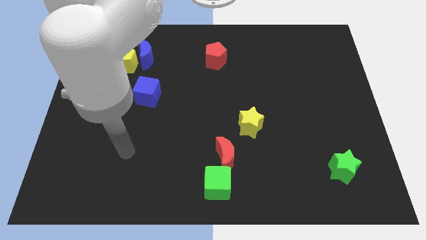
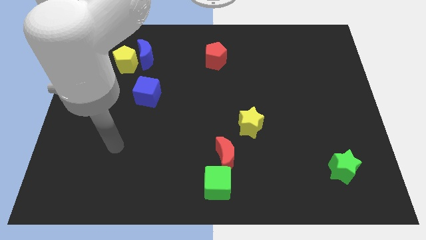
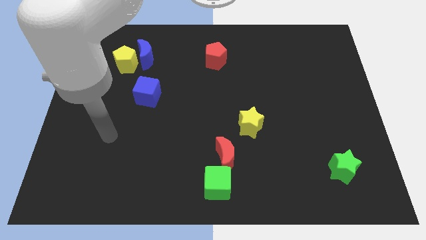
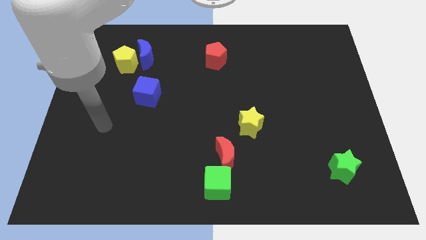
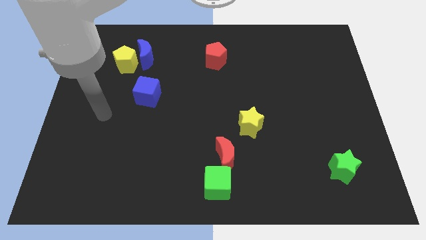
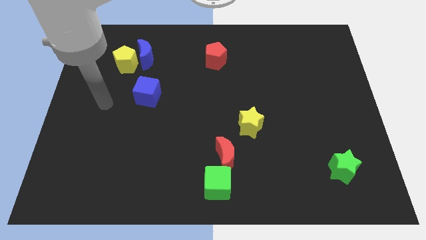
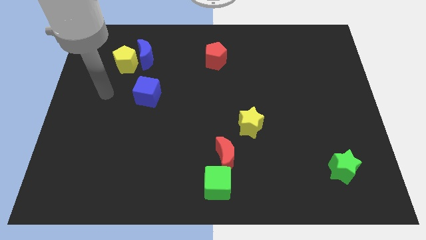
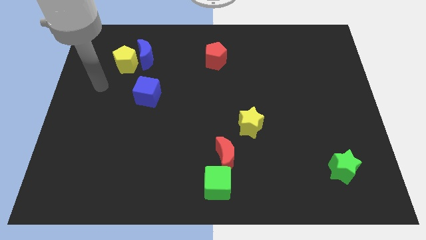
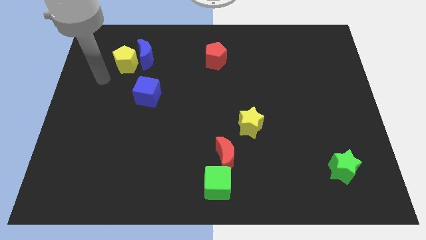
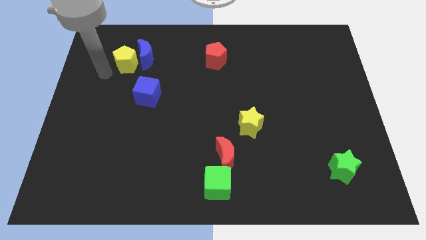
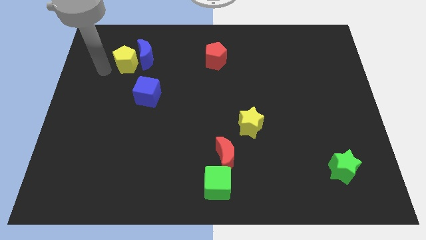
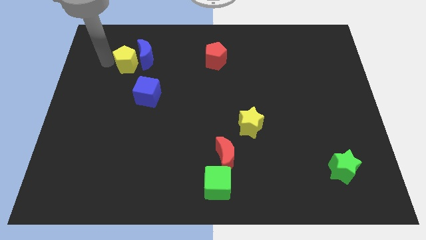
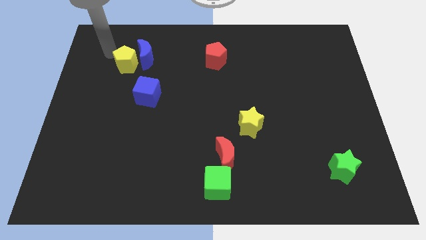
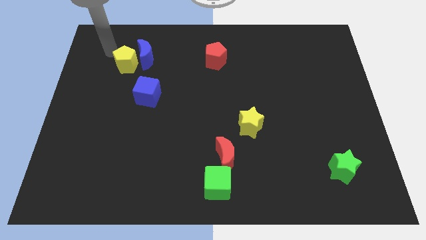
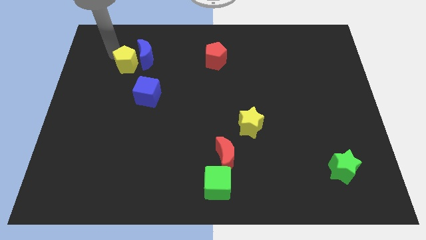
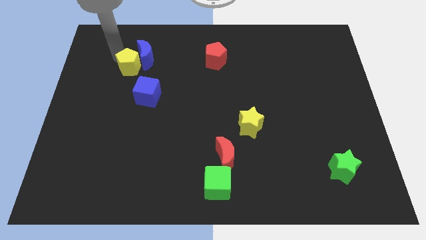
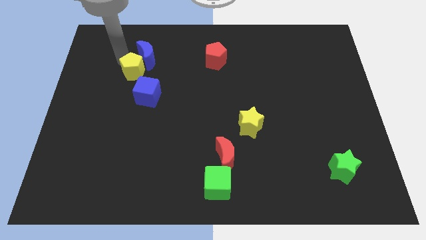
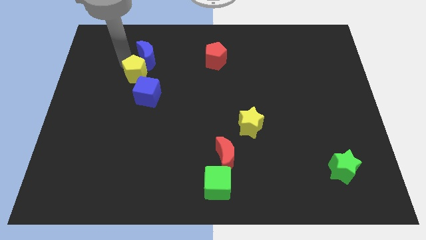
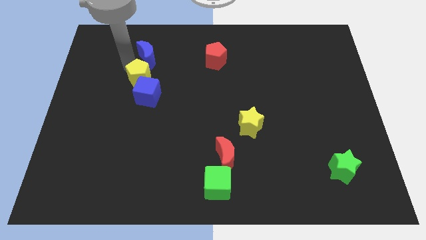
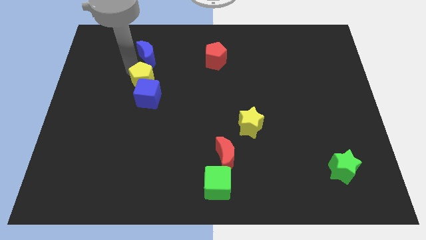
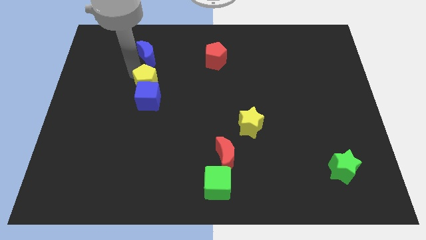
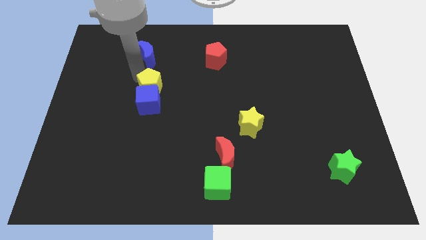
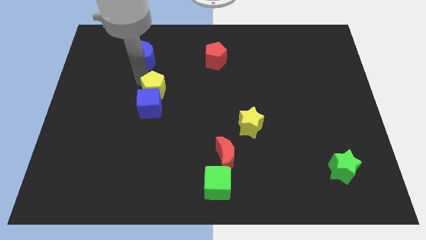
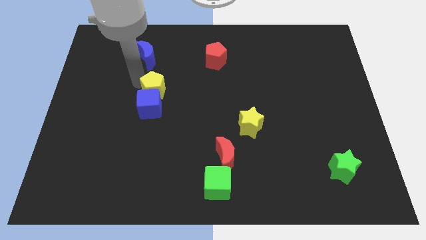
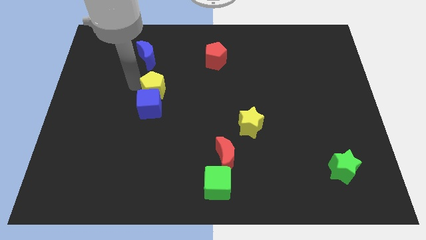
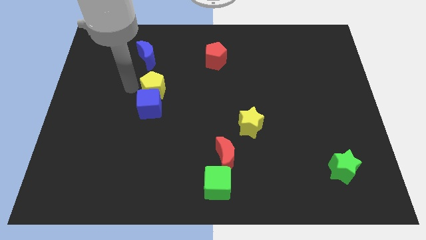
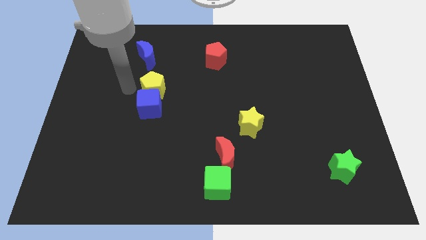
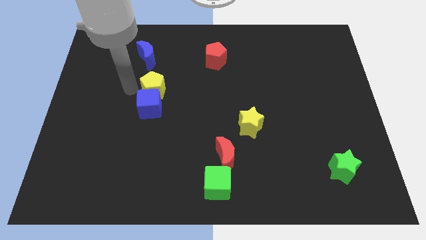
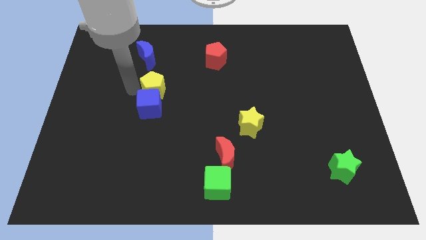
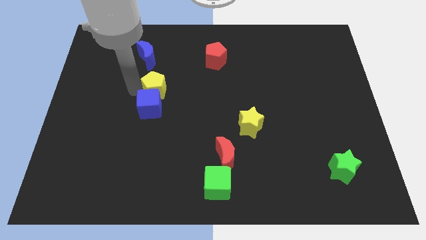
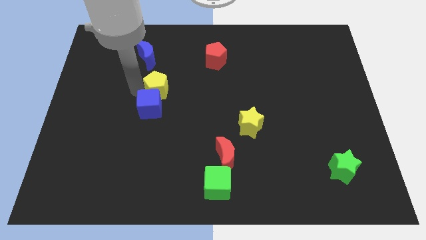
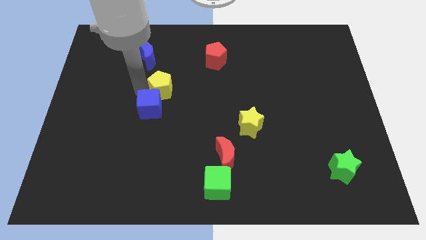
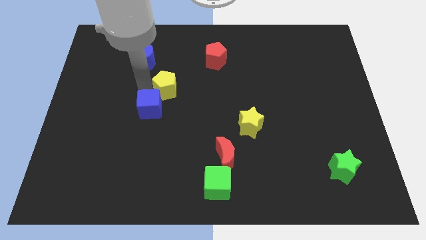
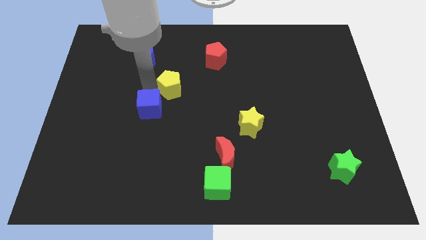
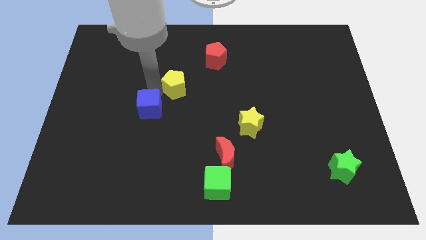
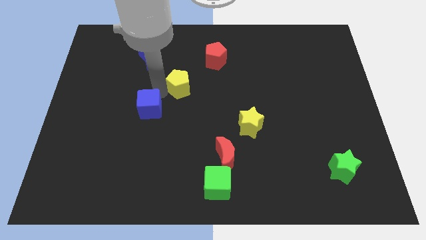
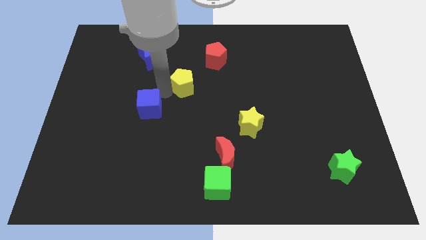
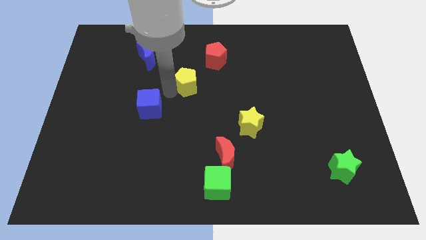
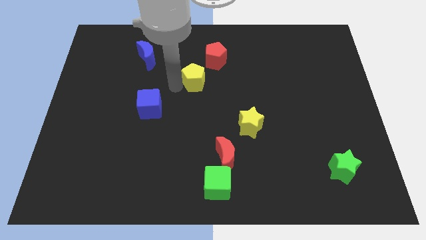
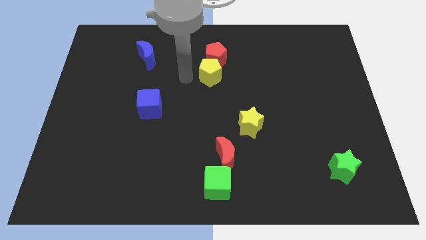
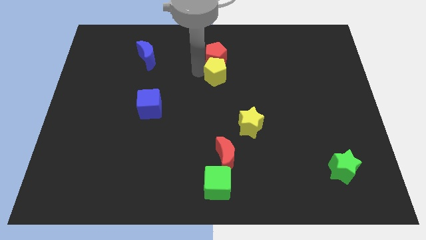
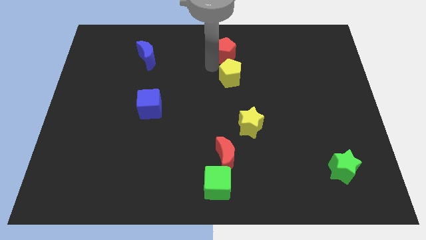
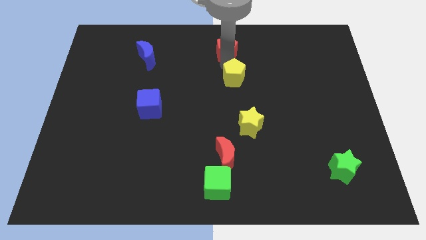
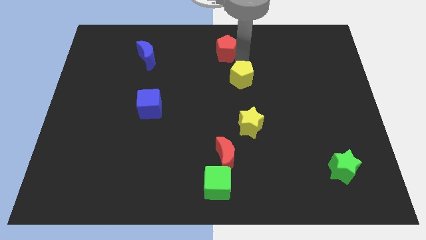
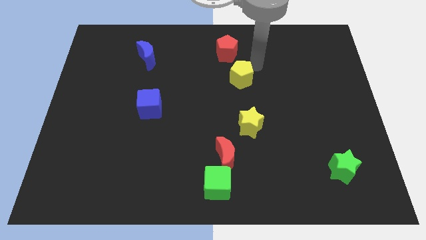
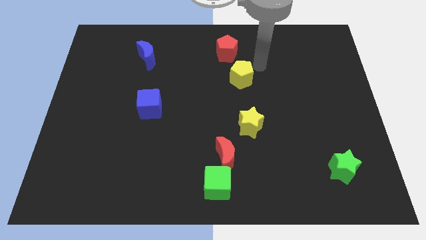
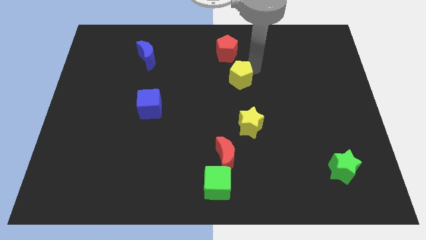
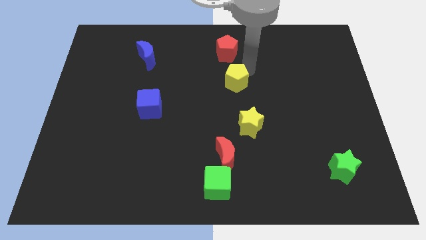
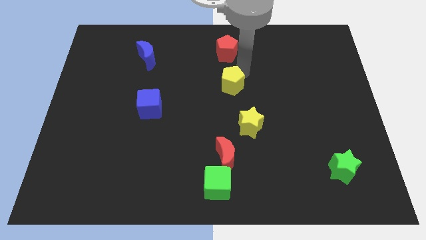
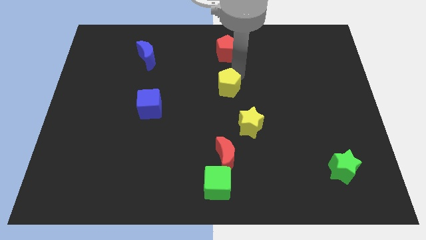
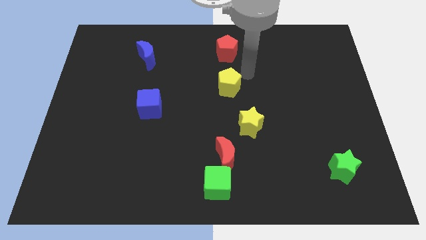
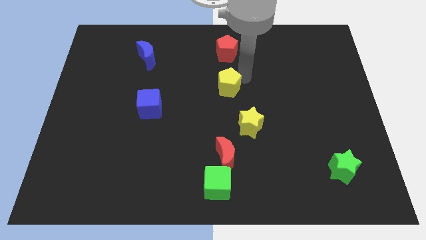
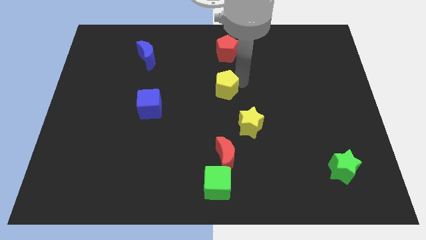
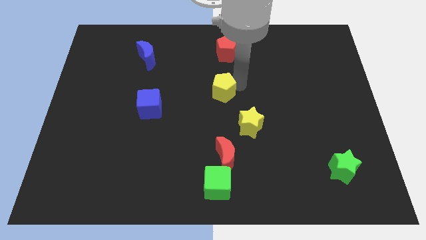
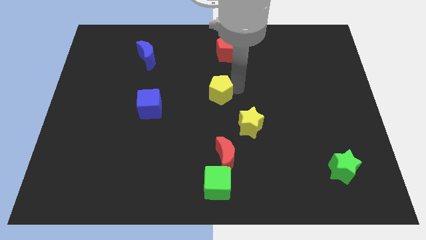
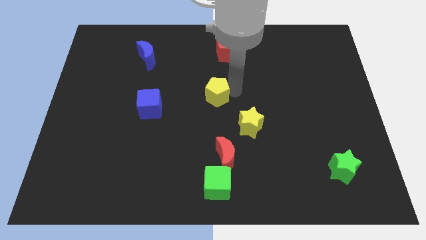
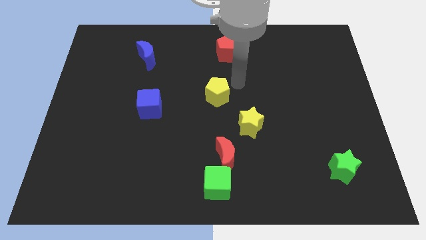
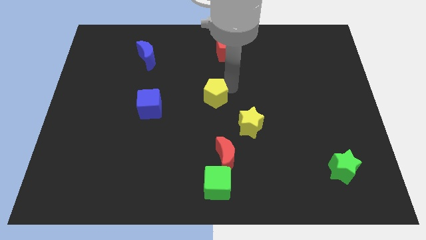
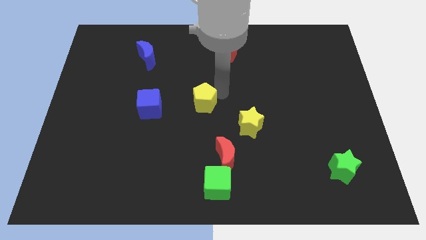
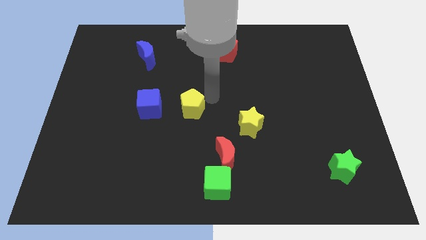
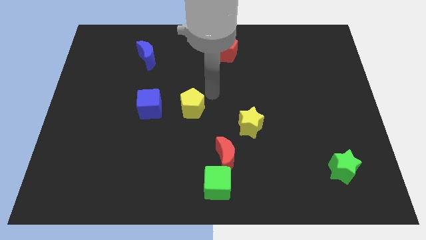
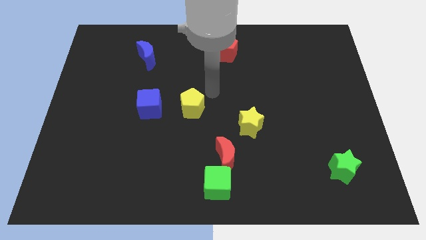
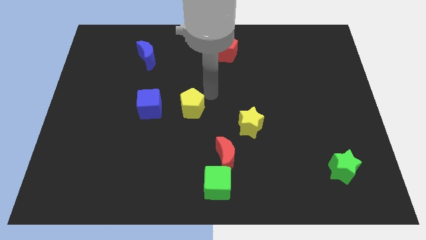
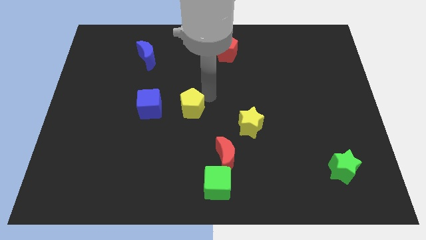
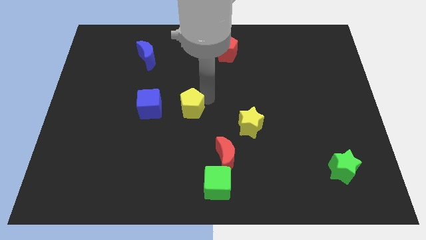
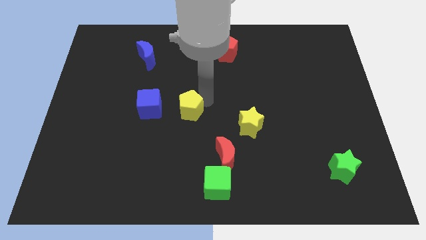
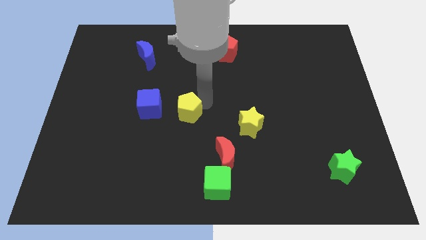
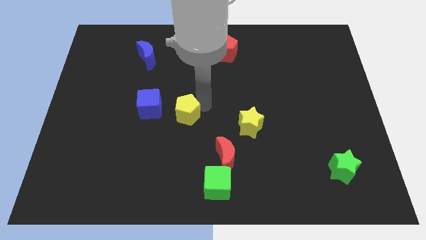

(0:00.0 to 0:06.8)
push the yellow pentagon diagonally down and to the right of the blue cube
